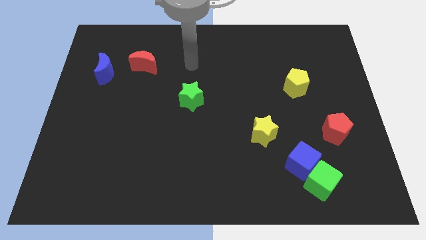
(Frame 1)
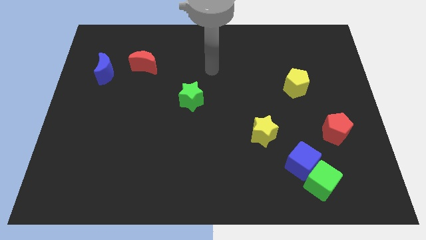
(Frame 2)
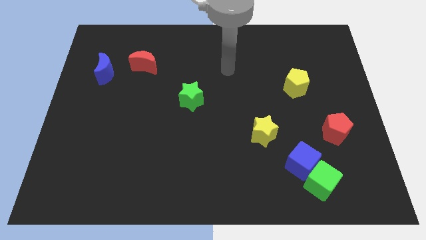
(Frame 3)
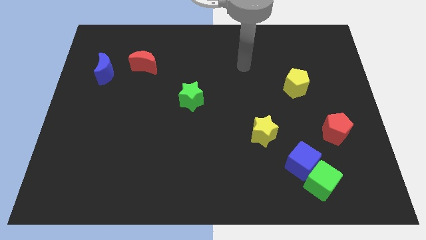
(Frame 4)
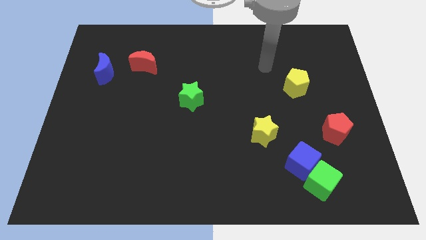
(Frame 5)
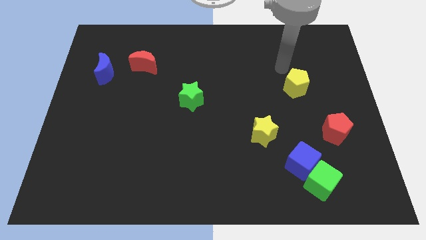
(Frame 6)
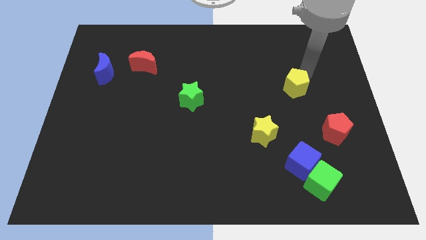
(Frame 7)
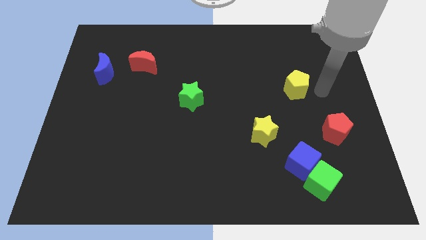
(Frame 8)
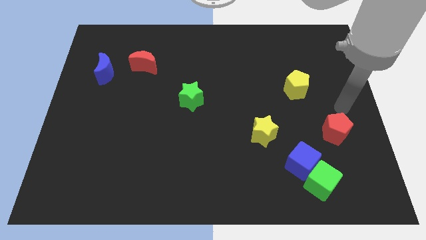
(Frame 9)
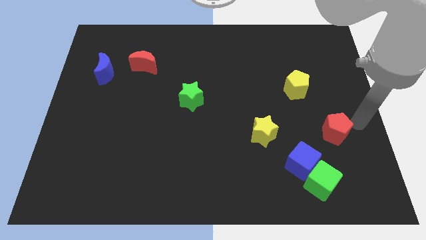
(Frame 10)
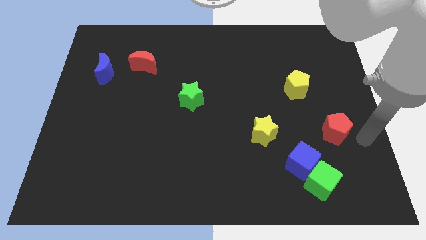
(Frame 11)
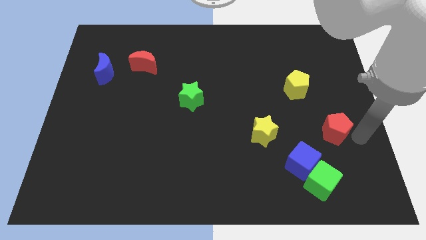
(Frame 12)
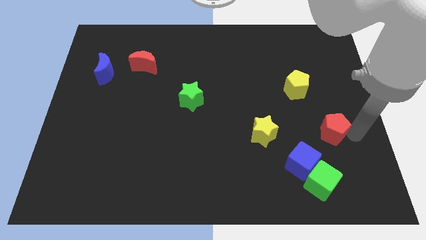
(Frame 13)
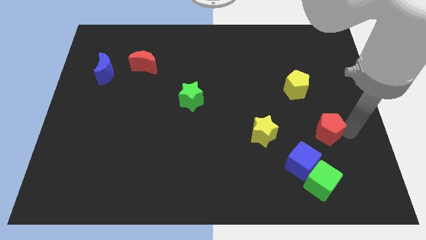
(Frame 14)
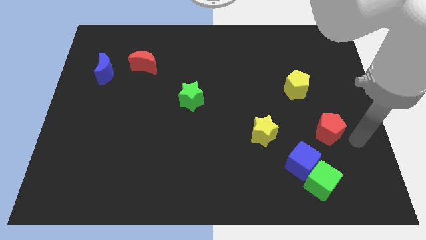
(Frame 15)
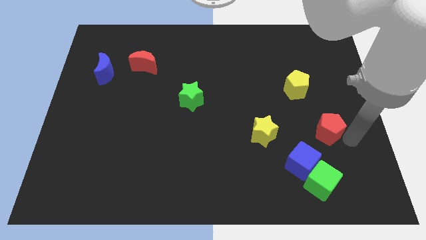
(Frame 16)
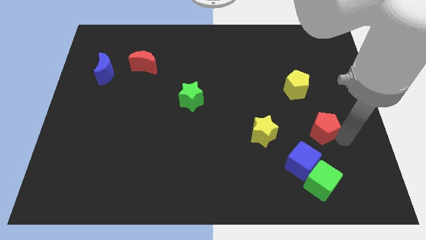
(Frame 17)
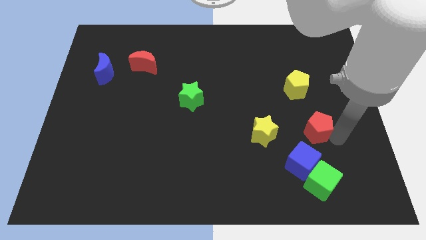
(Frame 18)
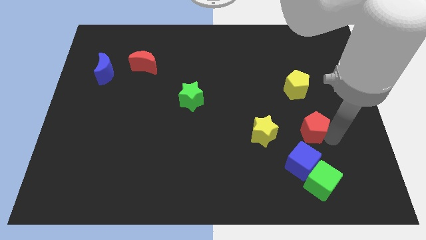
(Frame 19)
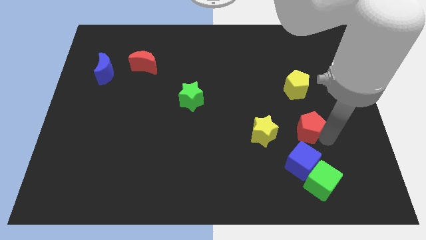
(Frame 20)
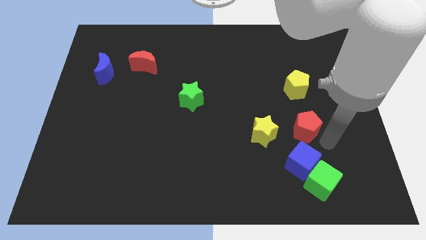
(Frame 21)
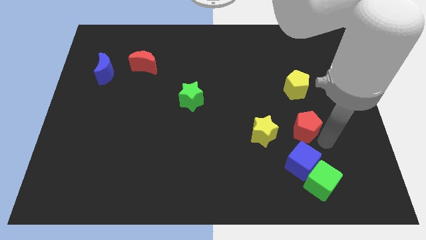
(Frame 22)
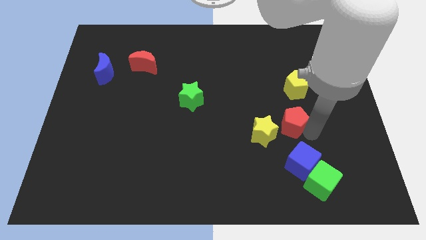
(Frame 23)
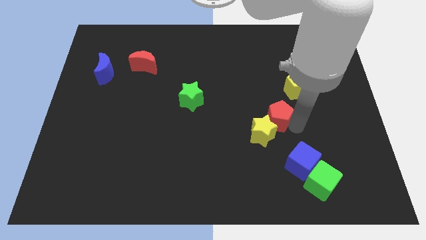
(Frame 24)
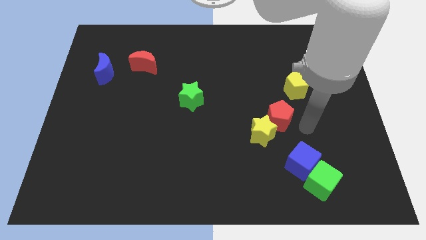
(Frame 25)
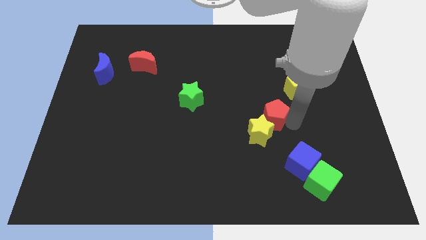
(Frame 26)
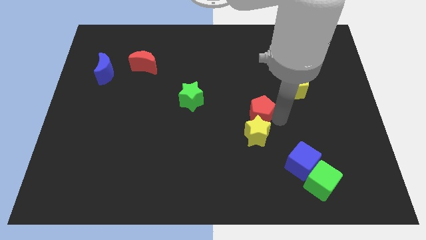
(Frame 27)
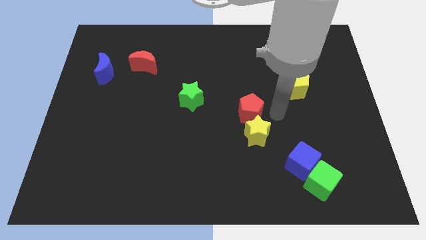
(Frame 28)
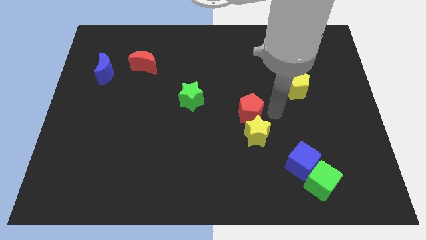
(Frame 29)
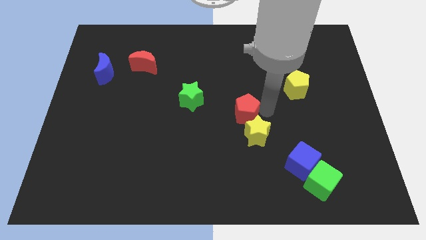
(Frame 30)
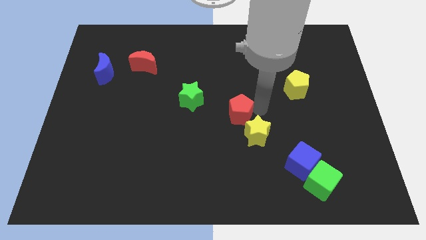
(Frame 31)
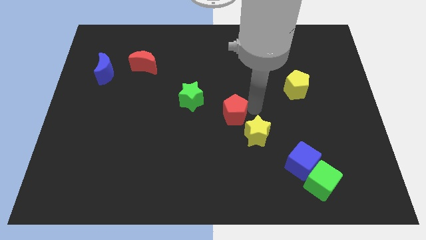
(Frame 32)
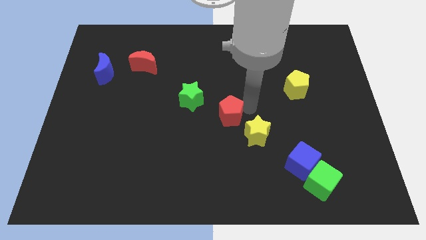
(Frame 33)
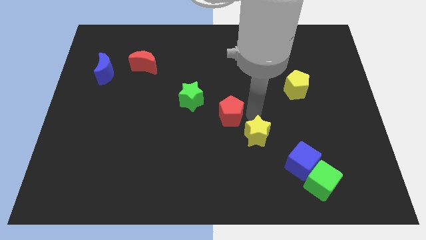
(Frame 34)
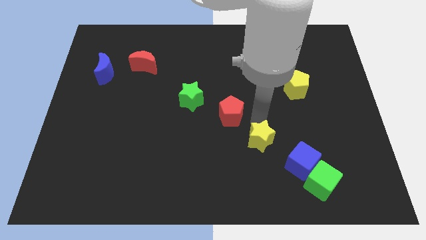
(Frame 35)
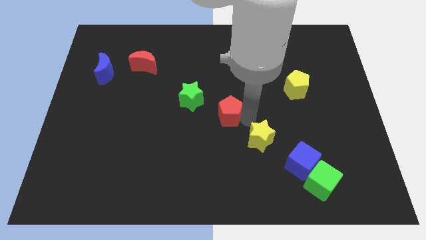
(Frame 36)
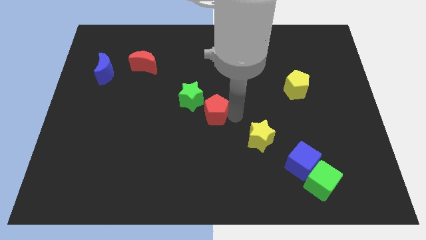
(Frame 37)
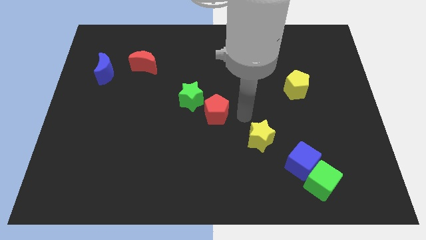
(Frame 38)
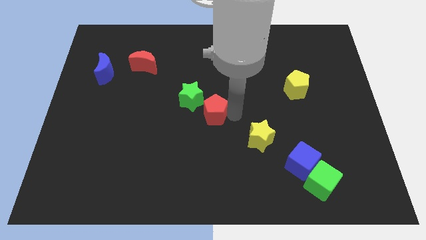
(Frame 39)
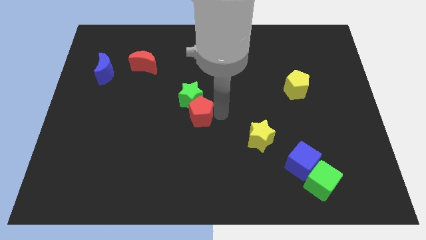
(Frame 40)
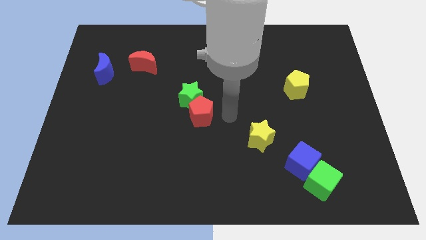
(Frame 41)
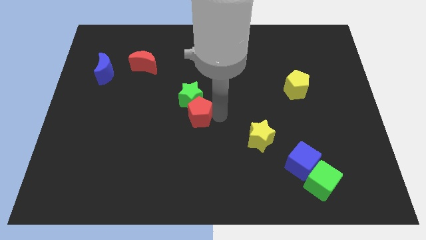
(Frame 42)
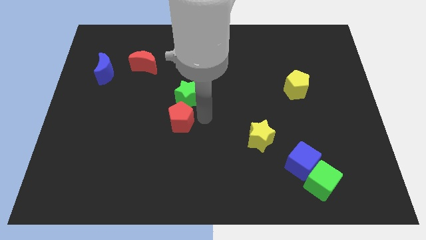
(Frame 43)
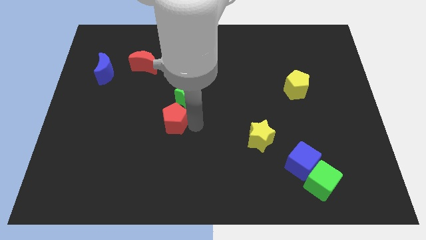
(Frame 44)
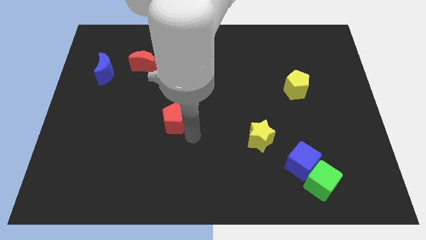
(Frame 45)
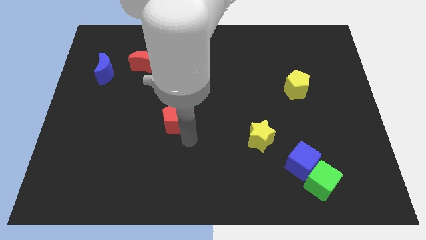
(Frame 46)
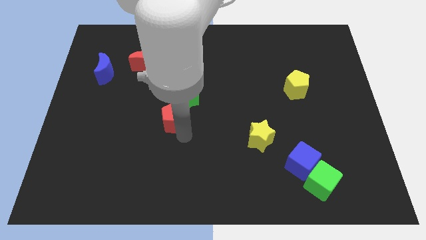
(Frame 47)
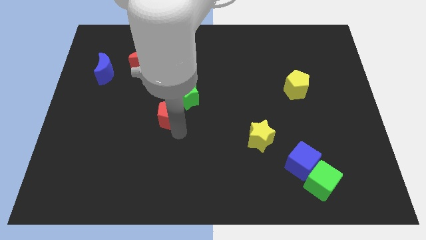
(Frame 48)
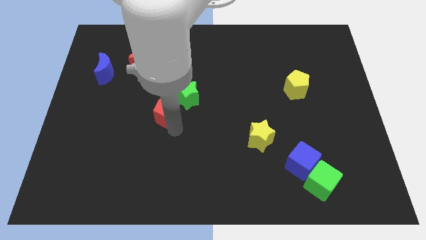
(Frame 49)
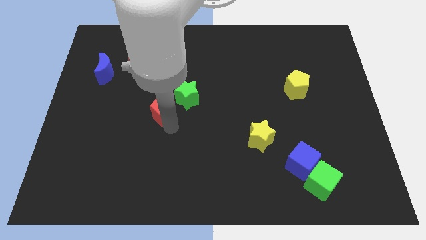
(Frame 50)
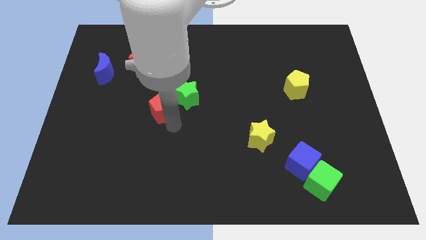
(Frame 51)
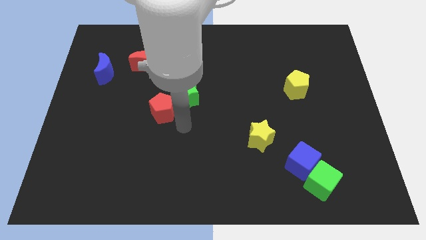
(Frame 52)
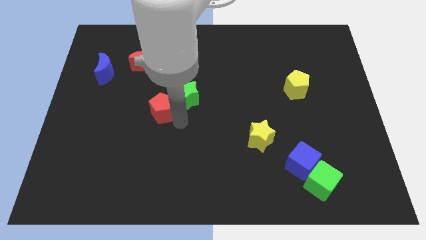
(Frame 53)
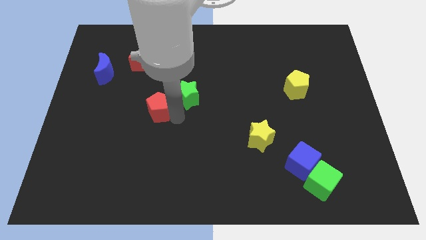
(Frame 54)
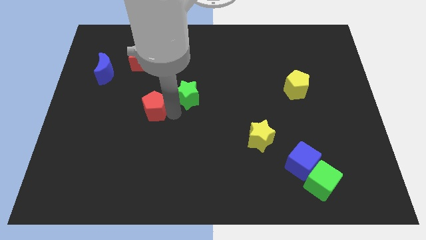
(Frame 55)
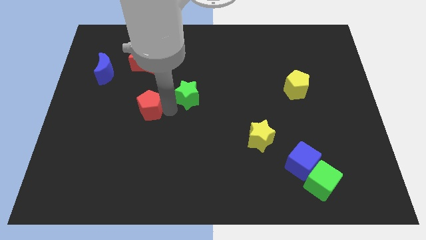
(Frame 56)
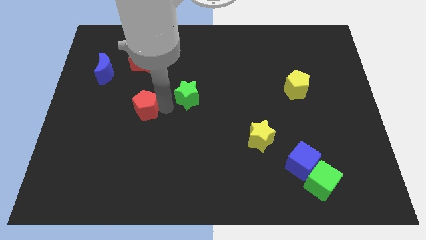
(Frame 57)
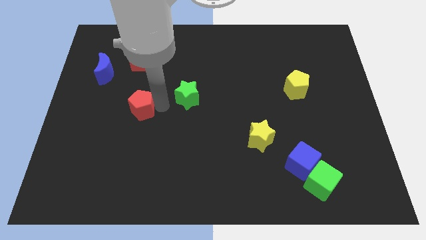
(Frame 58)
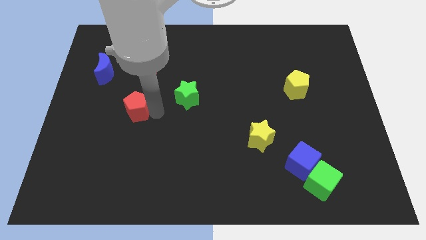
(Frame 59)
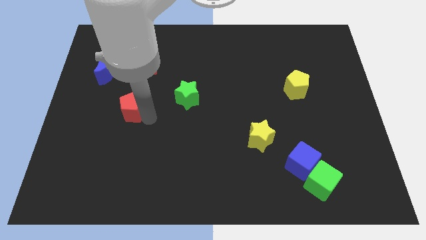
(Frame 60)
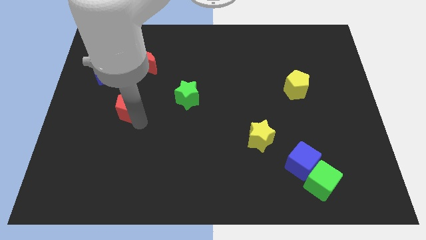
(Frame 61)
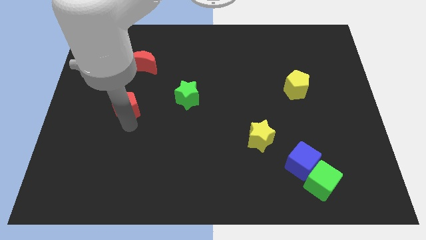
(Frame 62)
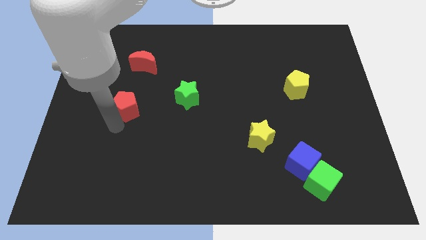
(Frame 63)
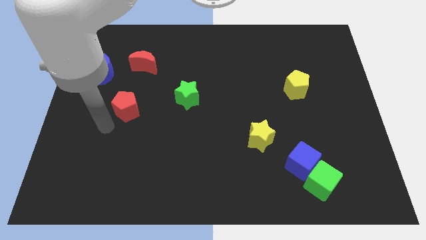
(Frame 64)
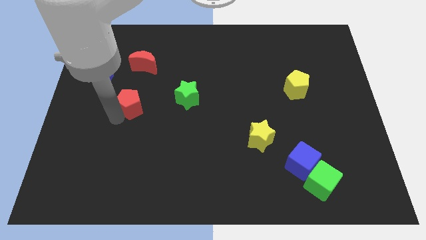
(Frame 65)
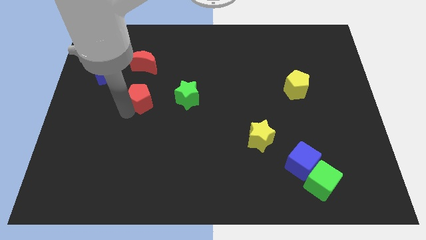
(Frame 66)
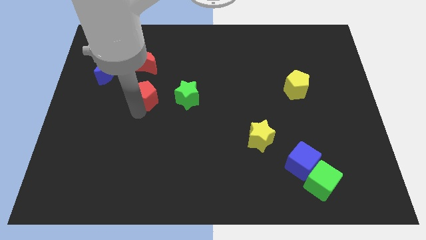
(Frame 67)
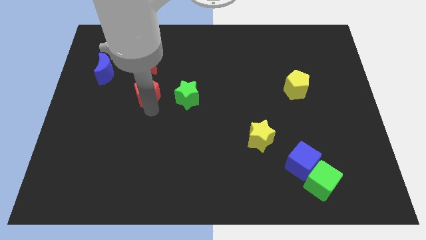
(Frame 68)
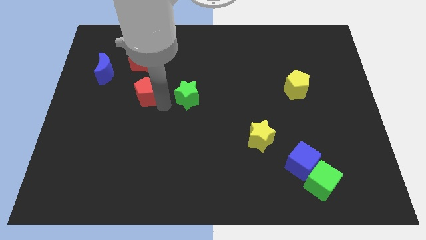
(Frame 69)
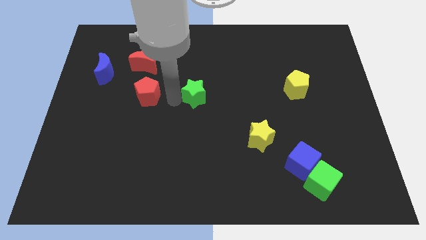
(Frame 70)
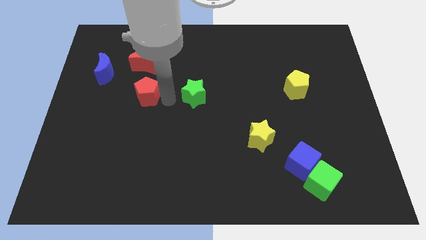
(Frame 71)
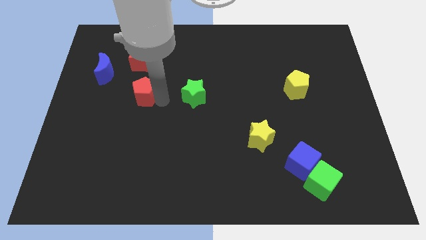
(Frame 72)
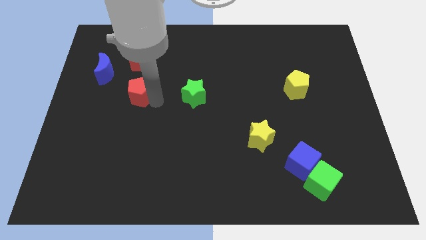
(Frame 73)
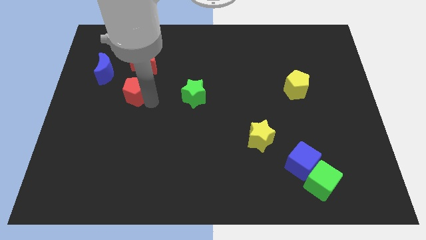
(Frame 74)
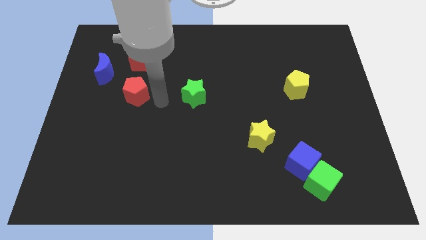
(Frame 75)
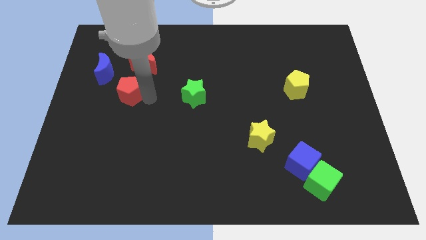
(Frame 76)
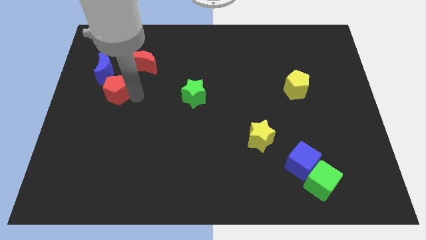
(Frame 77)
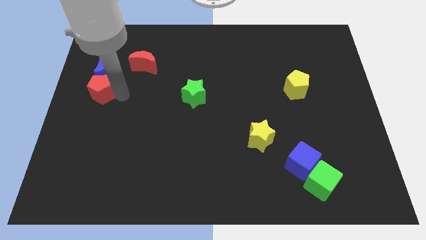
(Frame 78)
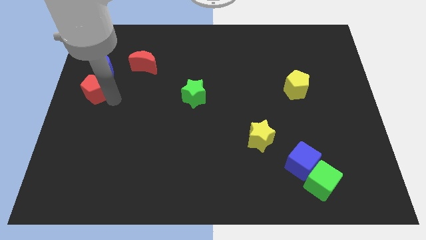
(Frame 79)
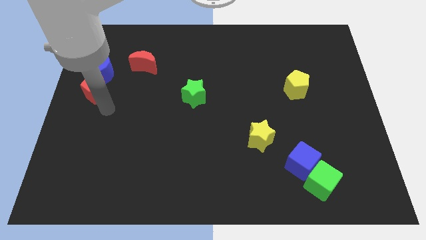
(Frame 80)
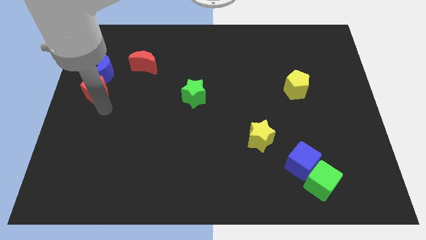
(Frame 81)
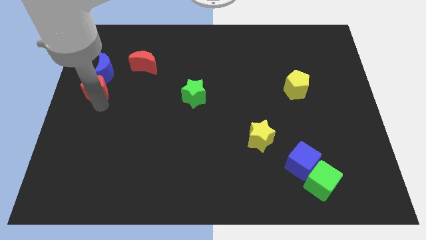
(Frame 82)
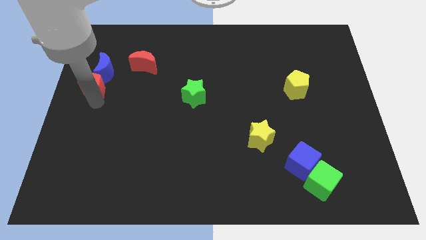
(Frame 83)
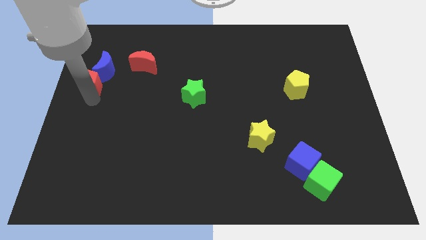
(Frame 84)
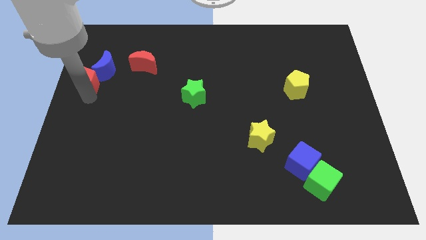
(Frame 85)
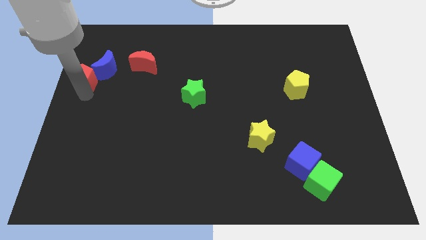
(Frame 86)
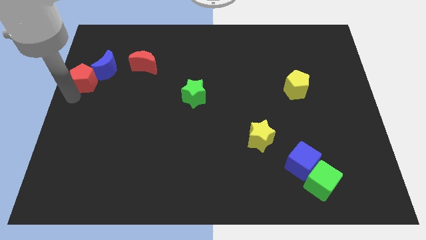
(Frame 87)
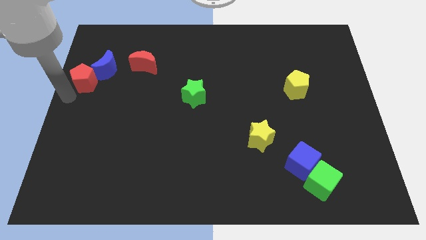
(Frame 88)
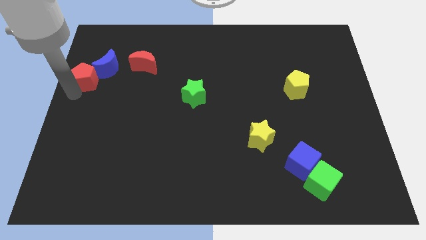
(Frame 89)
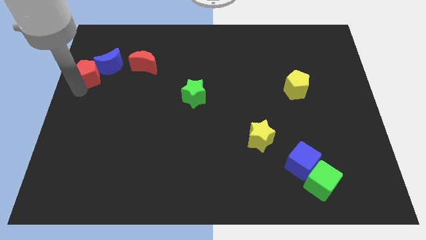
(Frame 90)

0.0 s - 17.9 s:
move the red pentagon left of the red moon
